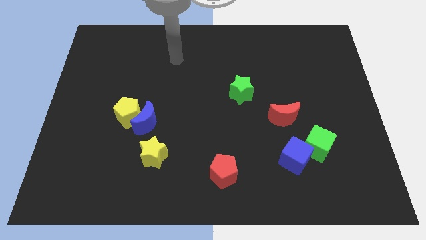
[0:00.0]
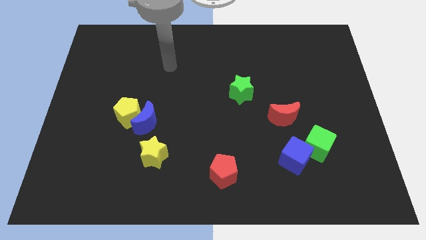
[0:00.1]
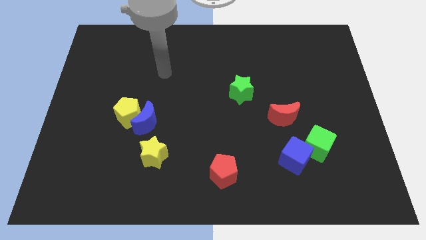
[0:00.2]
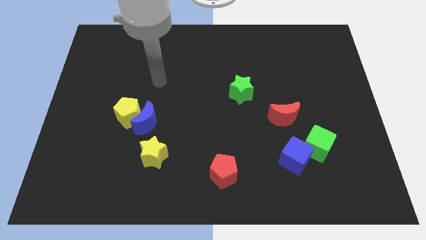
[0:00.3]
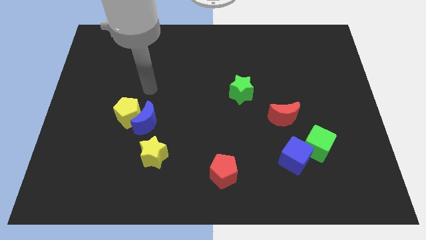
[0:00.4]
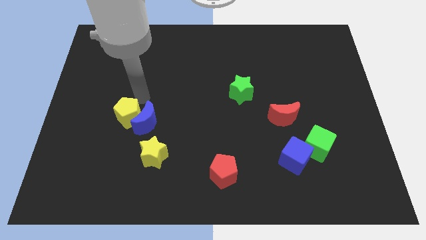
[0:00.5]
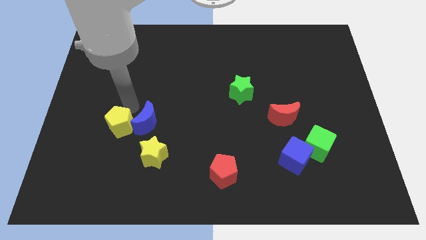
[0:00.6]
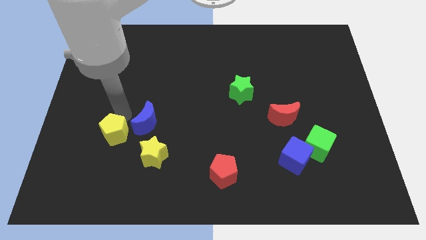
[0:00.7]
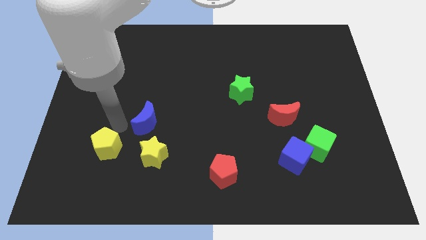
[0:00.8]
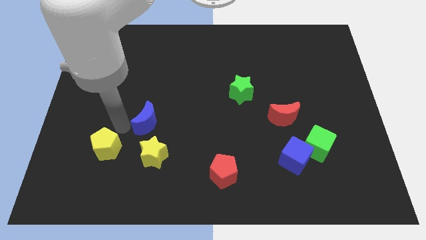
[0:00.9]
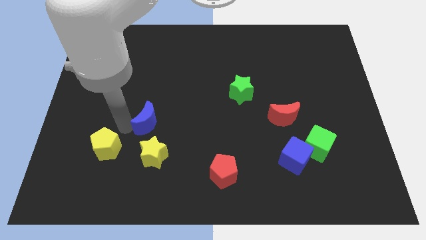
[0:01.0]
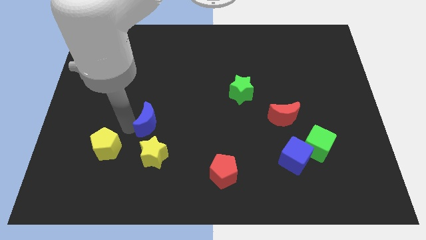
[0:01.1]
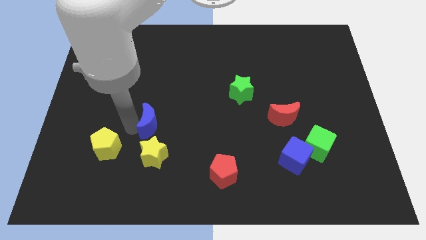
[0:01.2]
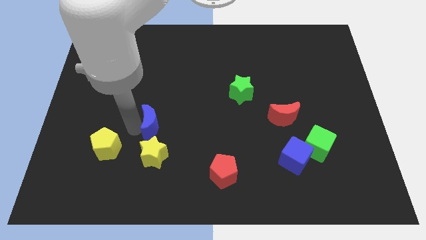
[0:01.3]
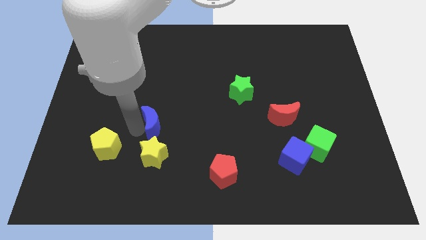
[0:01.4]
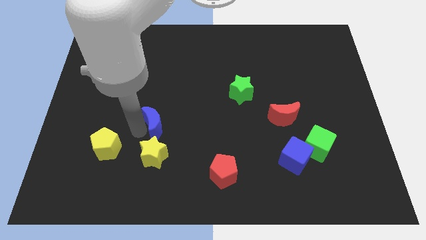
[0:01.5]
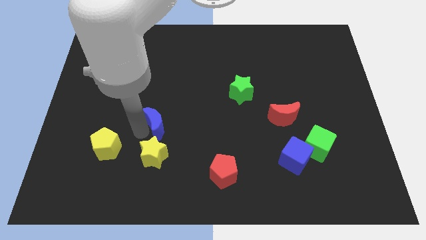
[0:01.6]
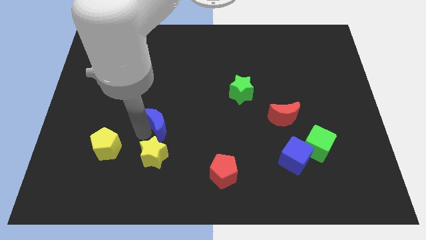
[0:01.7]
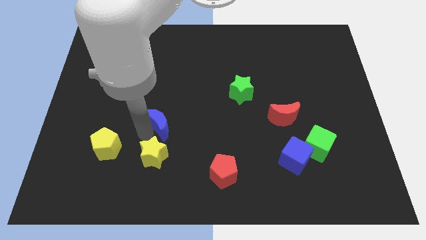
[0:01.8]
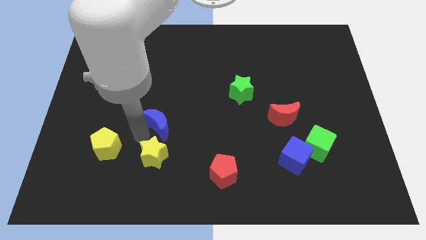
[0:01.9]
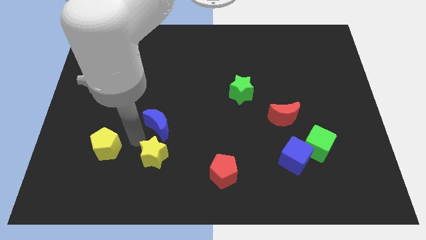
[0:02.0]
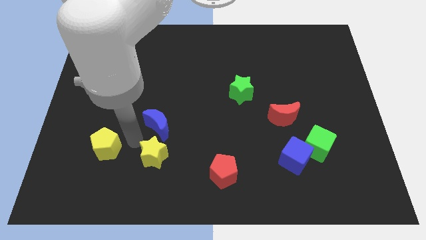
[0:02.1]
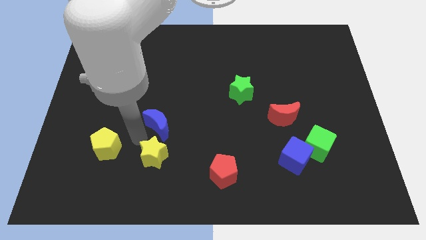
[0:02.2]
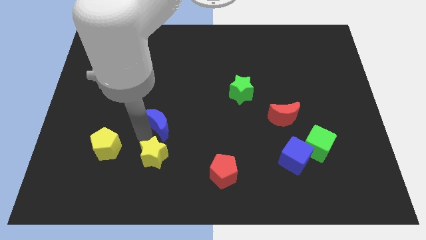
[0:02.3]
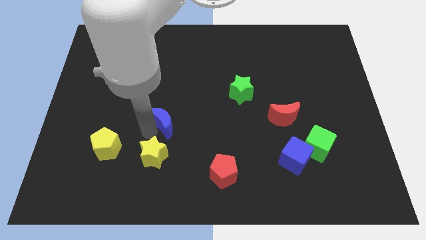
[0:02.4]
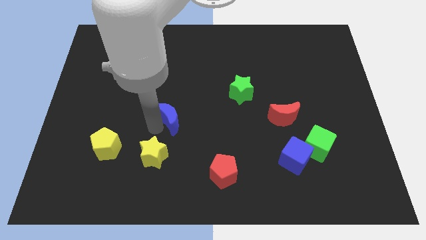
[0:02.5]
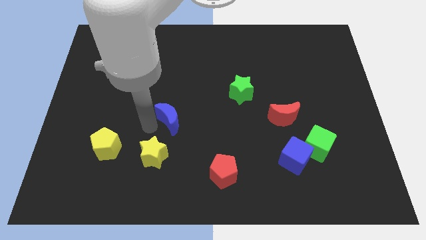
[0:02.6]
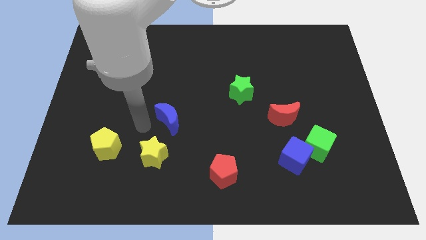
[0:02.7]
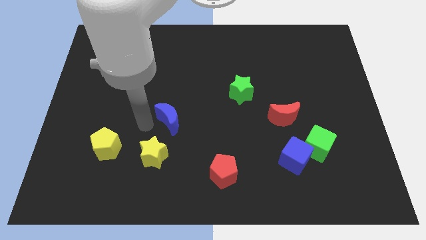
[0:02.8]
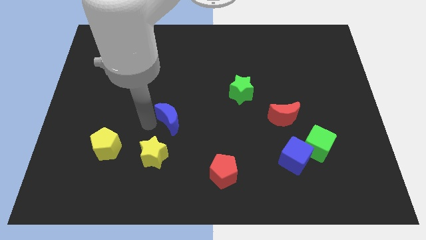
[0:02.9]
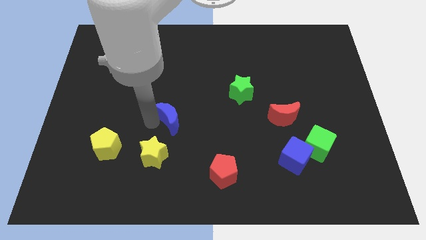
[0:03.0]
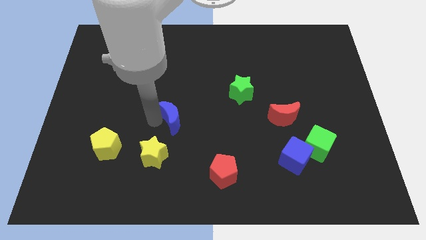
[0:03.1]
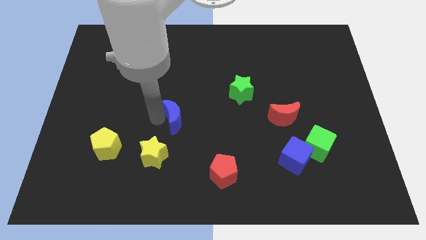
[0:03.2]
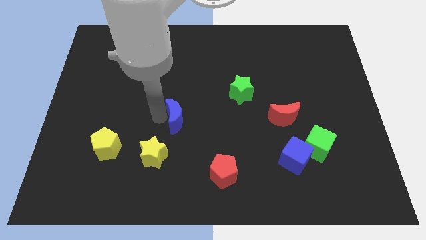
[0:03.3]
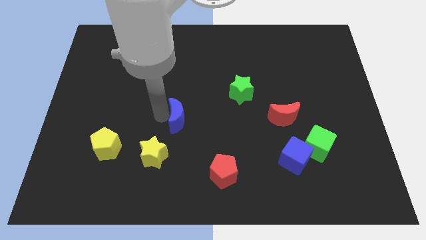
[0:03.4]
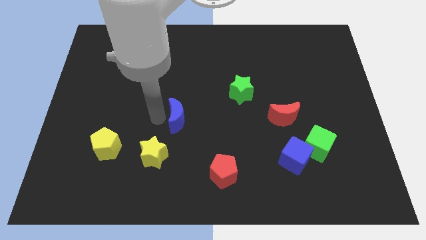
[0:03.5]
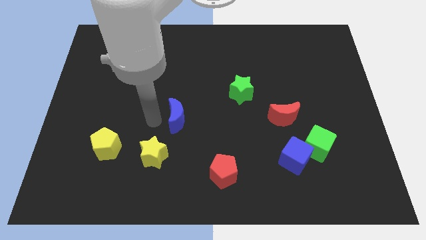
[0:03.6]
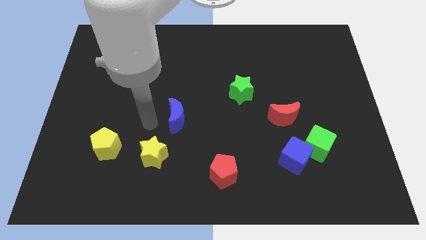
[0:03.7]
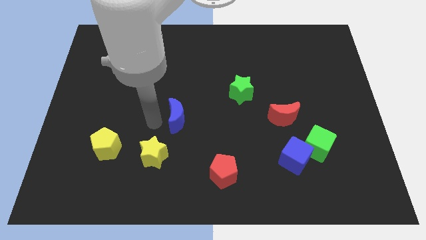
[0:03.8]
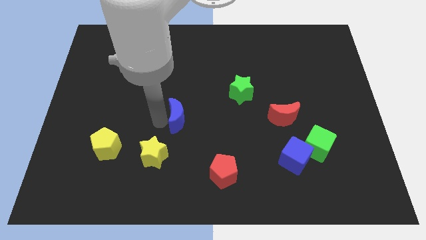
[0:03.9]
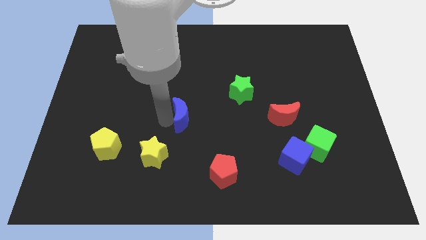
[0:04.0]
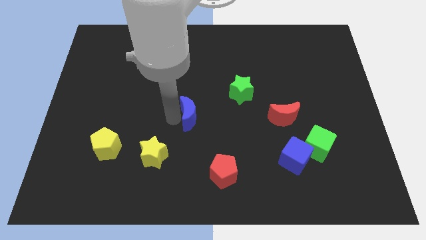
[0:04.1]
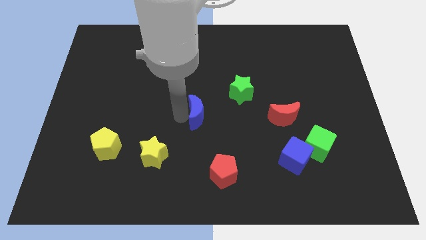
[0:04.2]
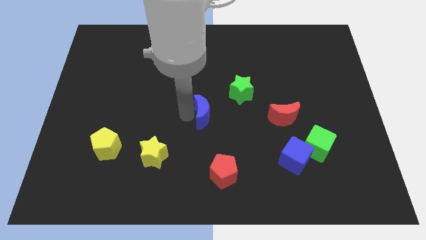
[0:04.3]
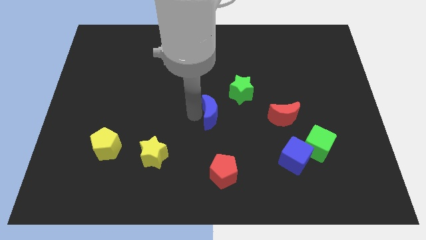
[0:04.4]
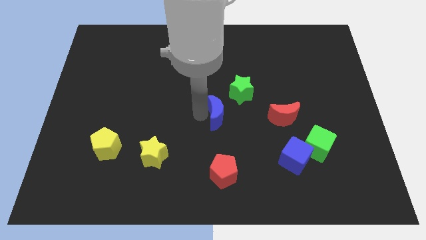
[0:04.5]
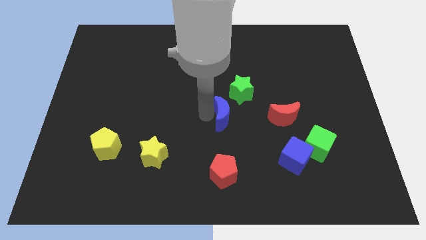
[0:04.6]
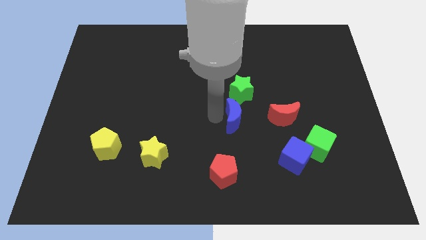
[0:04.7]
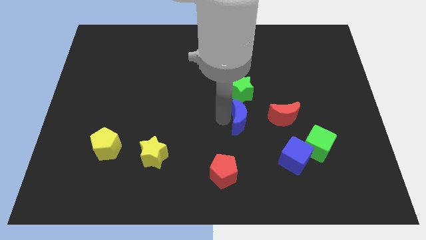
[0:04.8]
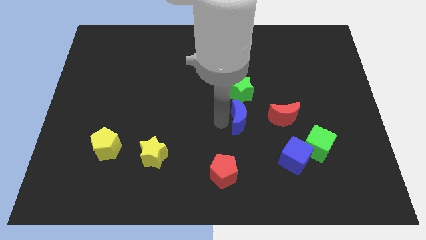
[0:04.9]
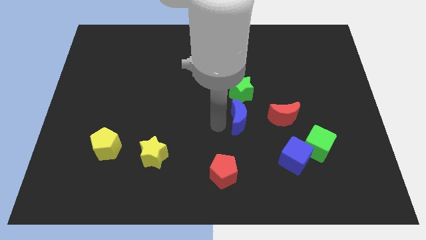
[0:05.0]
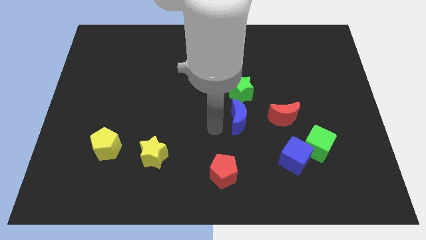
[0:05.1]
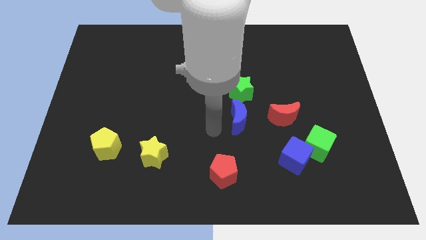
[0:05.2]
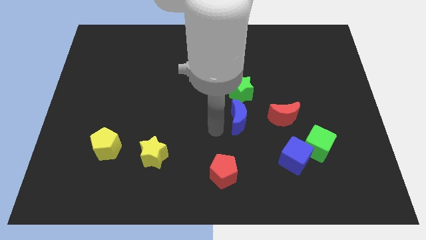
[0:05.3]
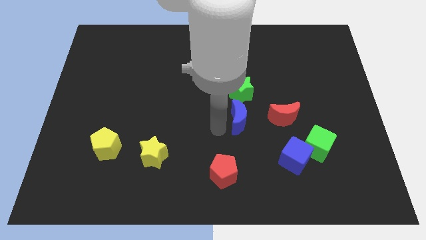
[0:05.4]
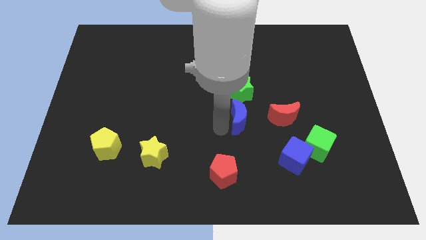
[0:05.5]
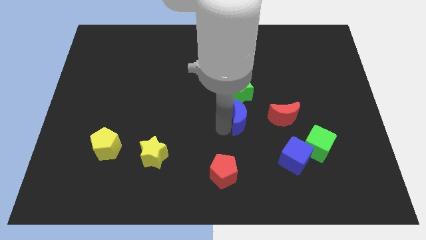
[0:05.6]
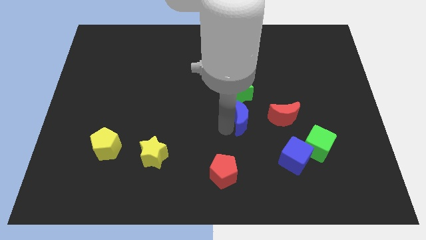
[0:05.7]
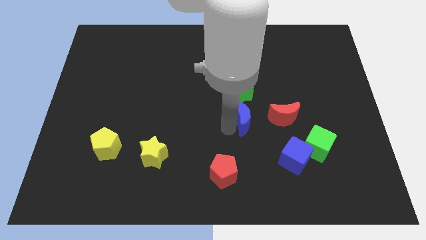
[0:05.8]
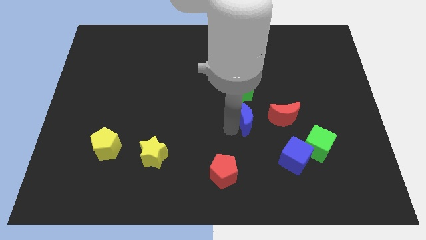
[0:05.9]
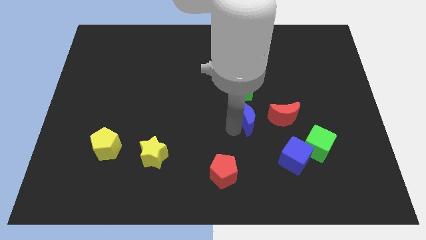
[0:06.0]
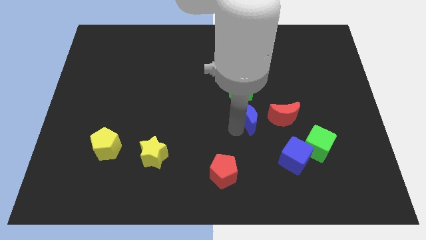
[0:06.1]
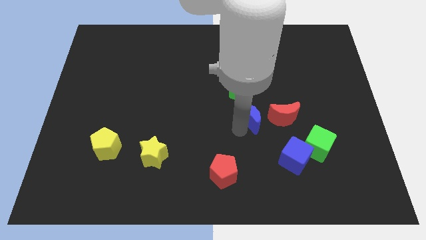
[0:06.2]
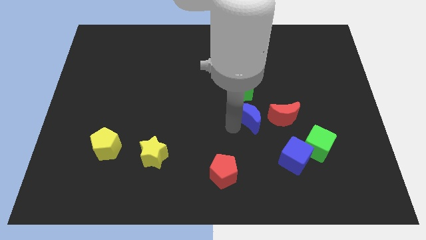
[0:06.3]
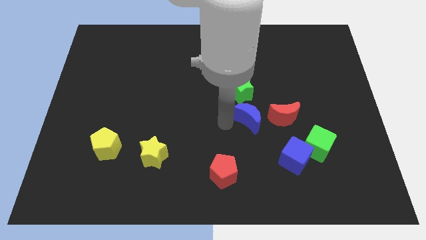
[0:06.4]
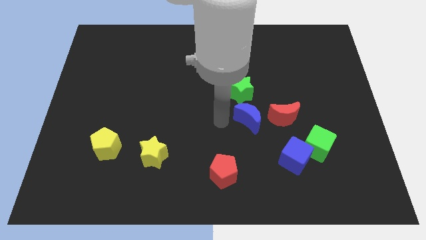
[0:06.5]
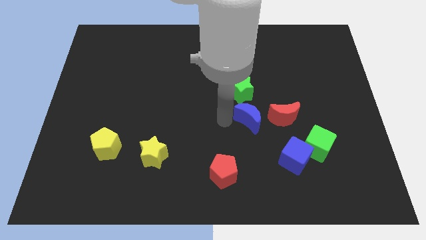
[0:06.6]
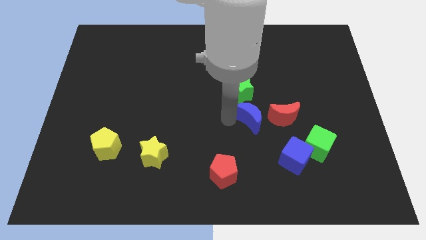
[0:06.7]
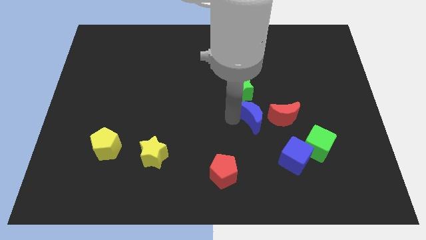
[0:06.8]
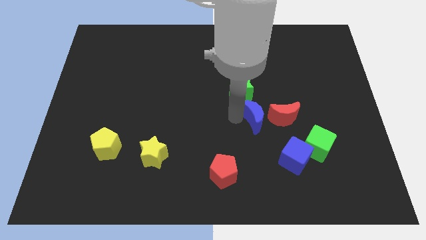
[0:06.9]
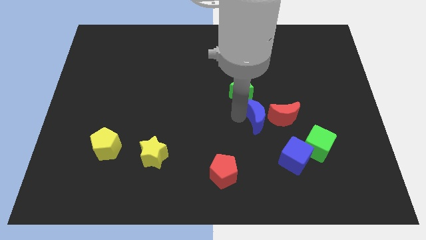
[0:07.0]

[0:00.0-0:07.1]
slide the blue moon to the red moon
